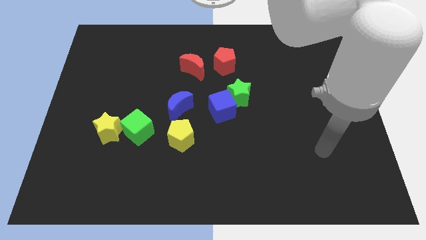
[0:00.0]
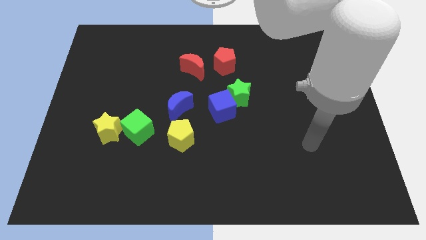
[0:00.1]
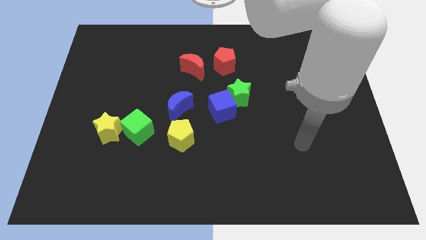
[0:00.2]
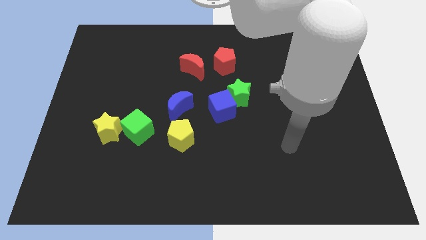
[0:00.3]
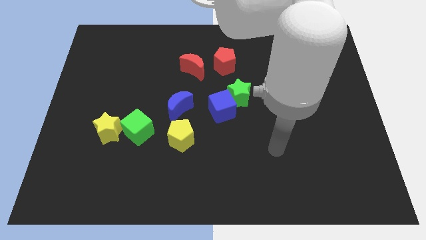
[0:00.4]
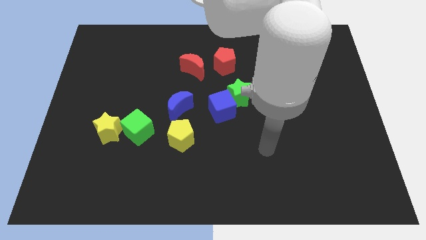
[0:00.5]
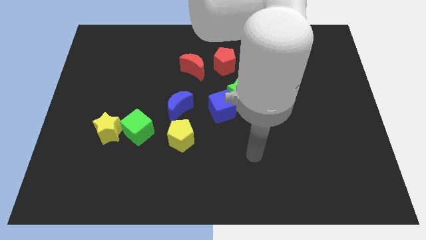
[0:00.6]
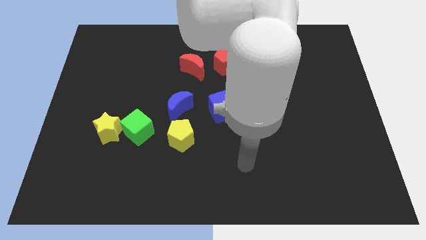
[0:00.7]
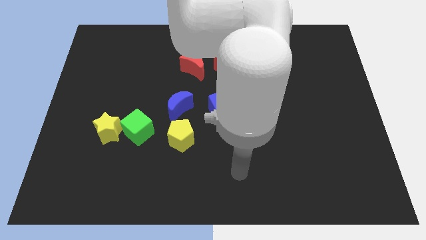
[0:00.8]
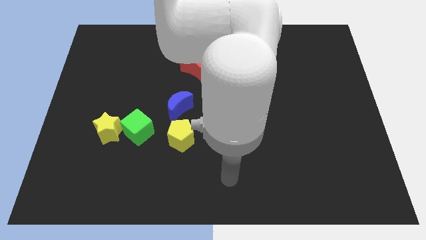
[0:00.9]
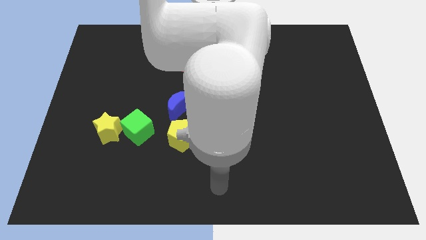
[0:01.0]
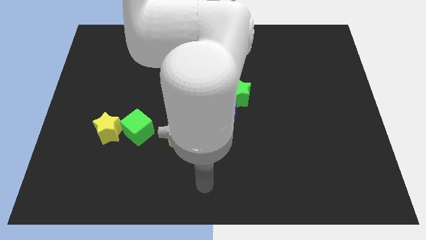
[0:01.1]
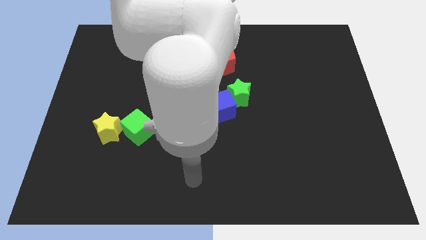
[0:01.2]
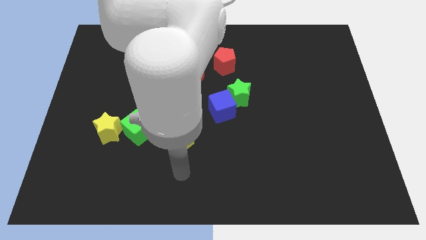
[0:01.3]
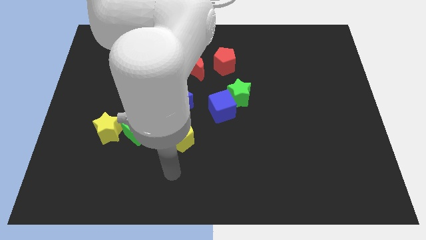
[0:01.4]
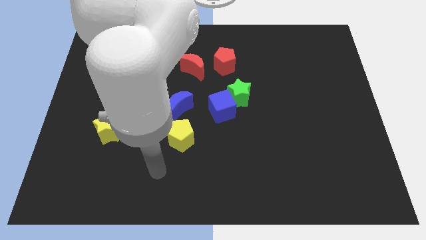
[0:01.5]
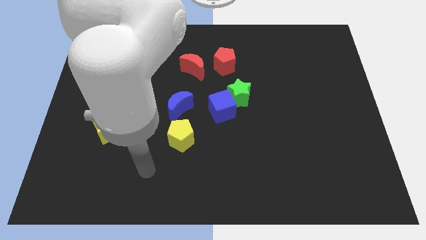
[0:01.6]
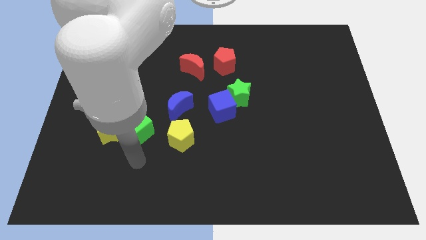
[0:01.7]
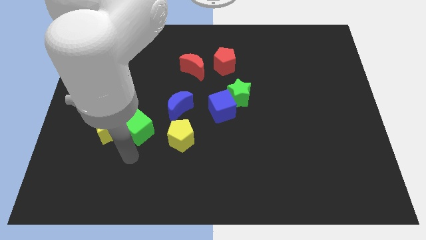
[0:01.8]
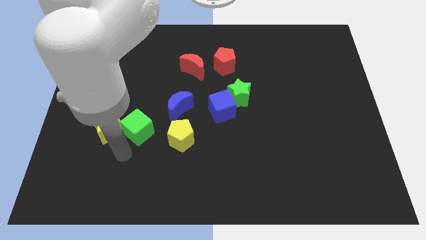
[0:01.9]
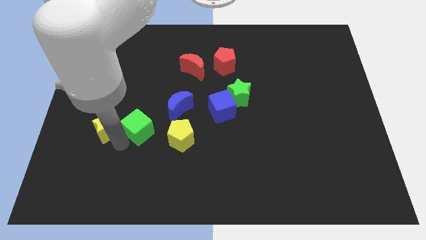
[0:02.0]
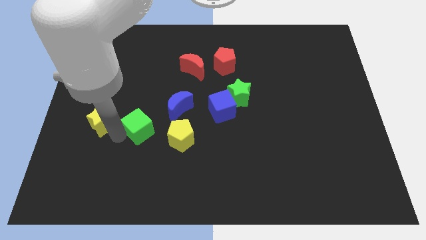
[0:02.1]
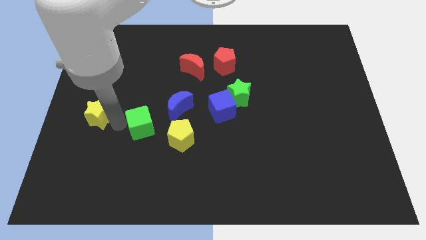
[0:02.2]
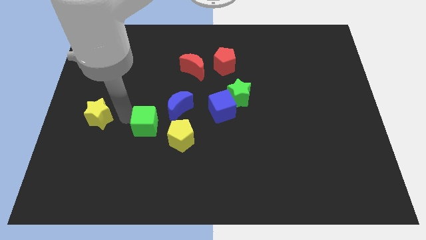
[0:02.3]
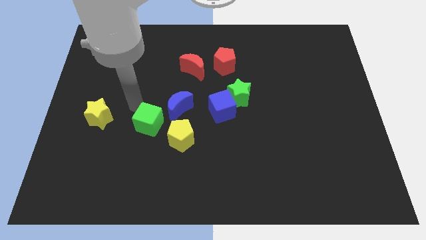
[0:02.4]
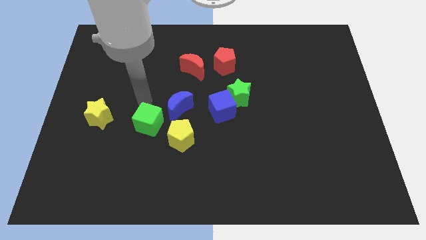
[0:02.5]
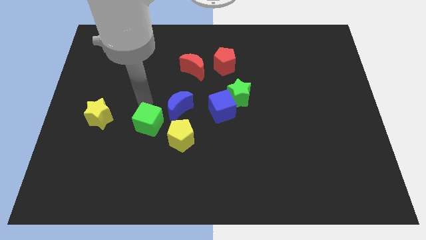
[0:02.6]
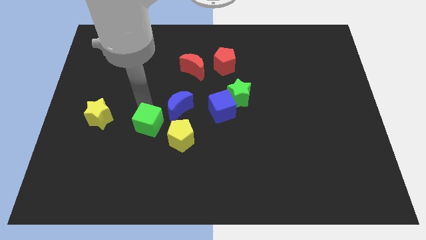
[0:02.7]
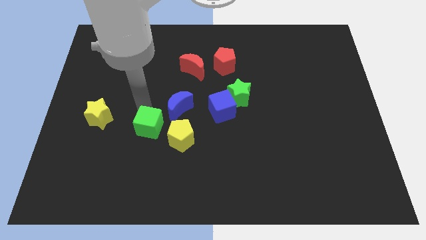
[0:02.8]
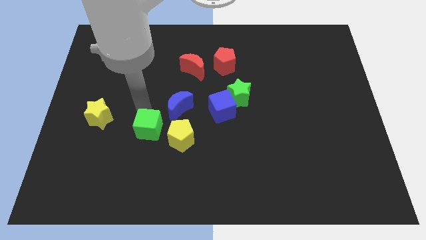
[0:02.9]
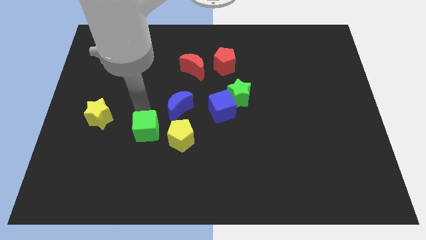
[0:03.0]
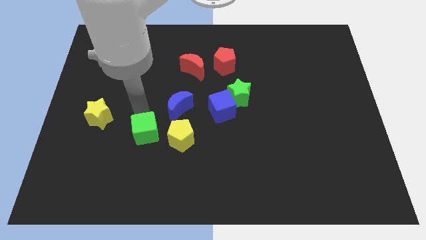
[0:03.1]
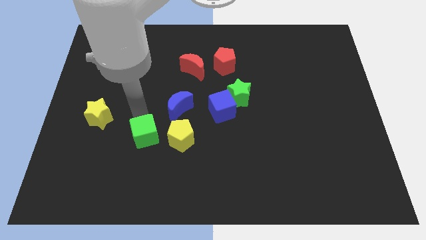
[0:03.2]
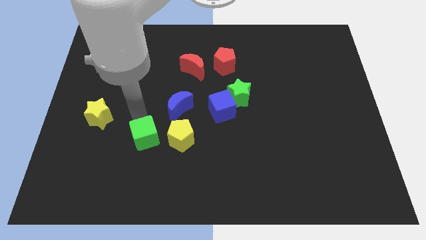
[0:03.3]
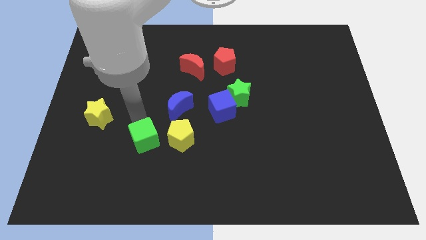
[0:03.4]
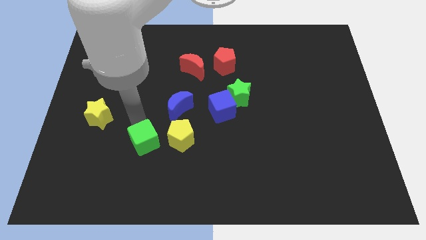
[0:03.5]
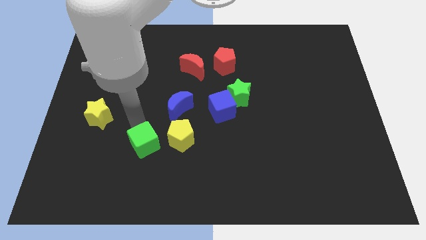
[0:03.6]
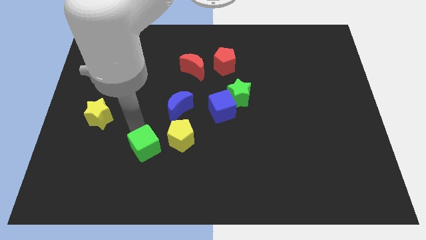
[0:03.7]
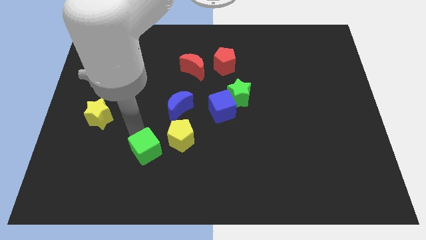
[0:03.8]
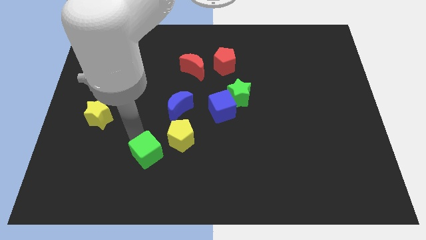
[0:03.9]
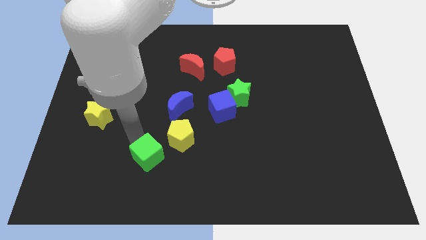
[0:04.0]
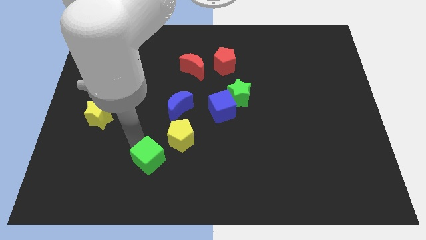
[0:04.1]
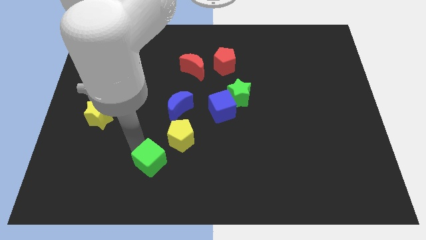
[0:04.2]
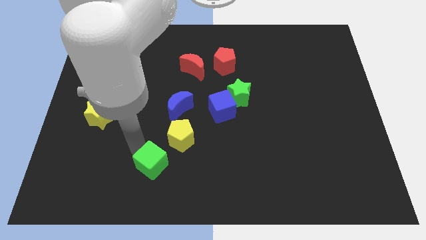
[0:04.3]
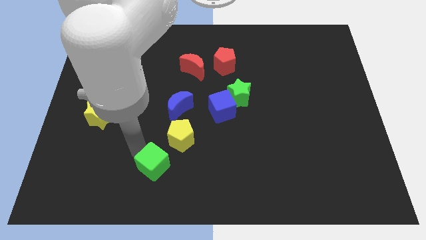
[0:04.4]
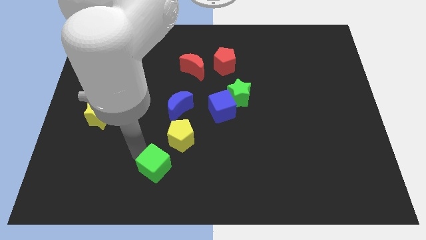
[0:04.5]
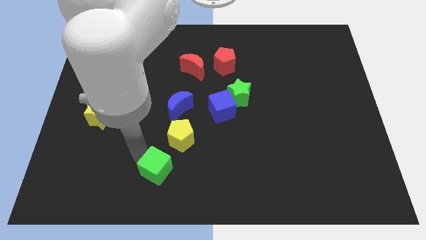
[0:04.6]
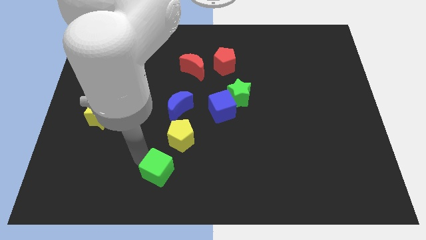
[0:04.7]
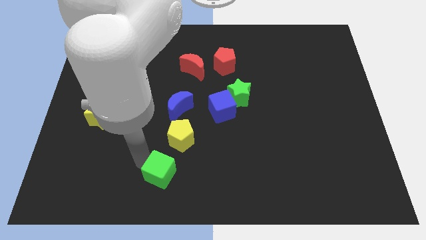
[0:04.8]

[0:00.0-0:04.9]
push the green cube to the bottom

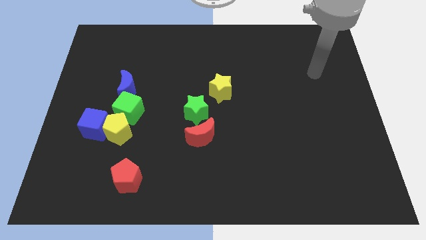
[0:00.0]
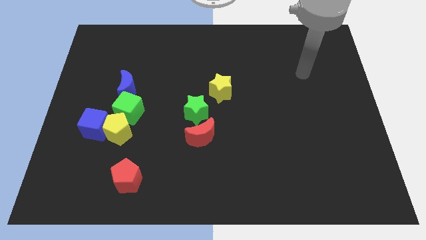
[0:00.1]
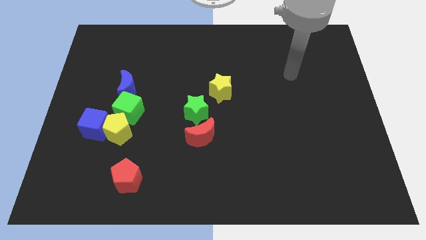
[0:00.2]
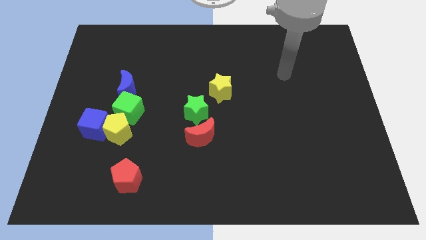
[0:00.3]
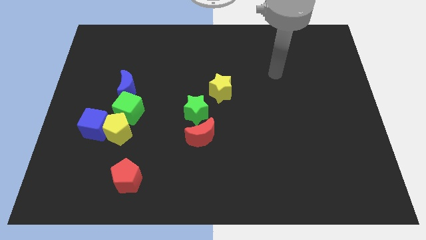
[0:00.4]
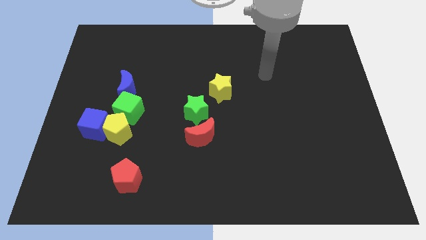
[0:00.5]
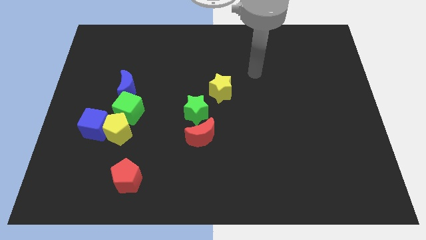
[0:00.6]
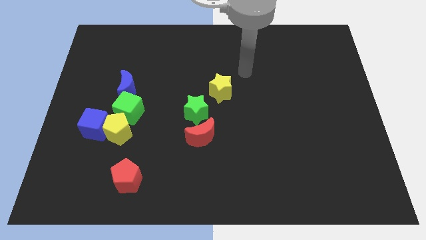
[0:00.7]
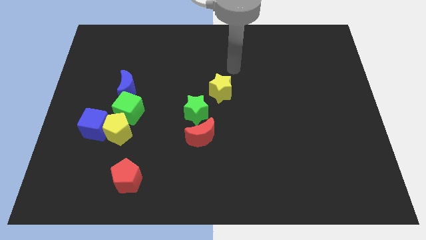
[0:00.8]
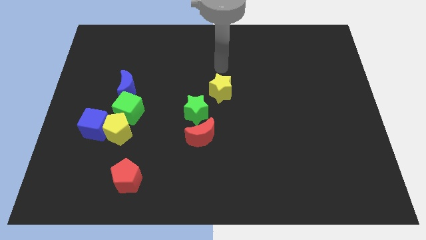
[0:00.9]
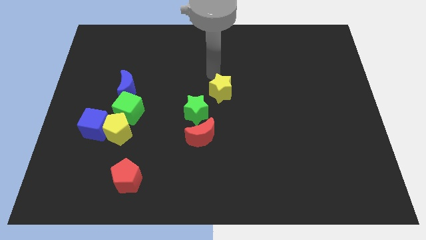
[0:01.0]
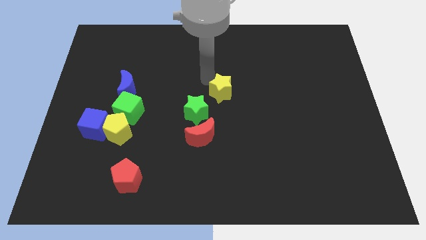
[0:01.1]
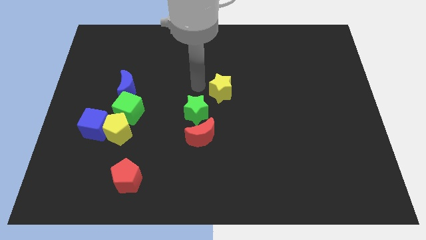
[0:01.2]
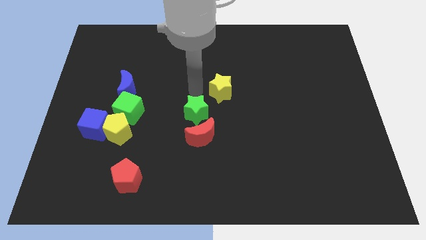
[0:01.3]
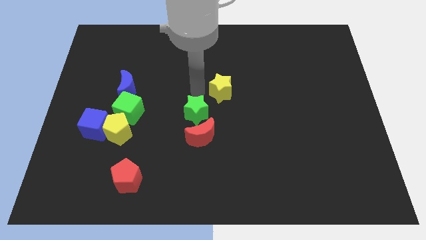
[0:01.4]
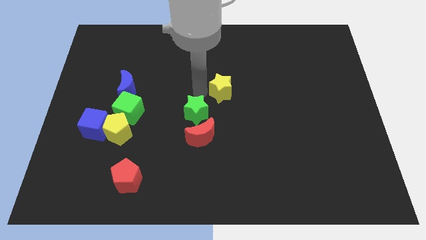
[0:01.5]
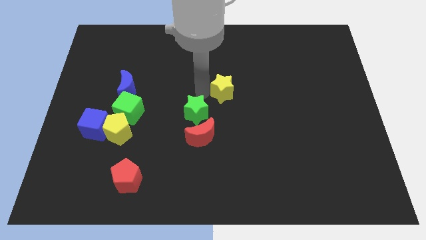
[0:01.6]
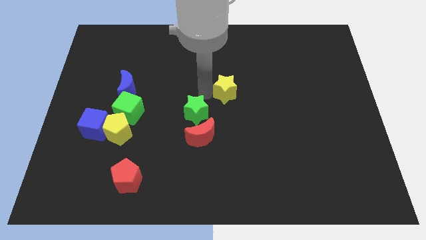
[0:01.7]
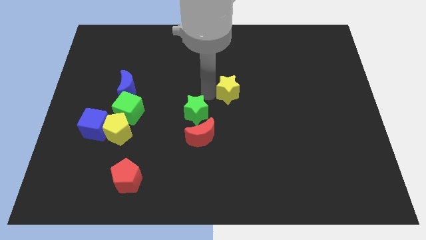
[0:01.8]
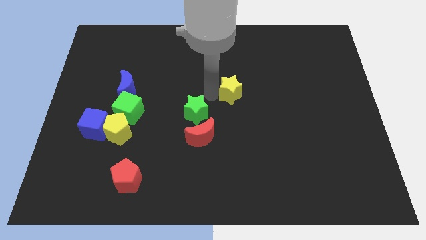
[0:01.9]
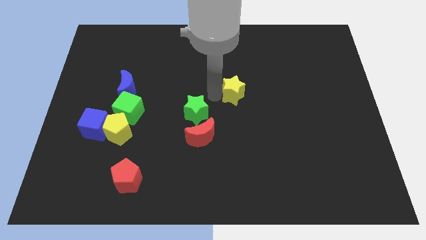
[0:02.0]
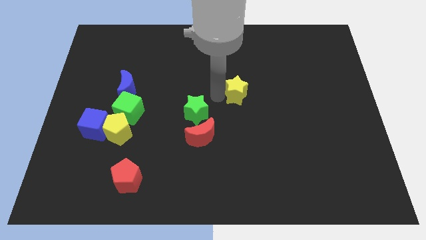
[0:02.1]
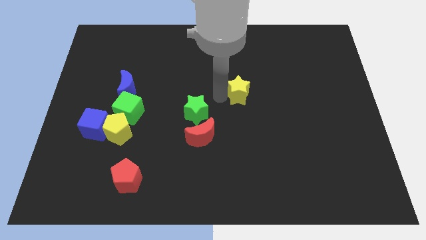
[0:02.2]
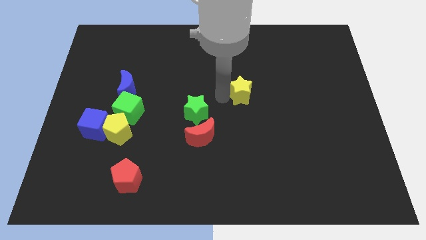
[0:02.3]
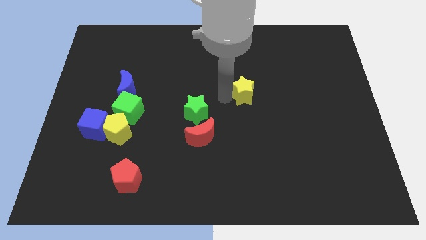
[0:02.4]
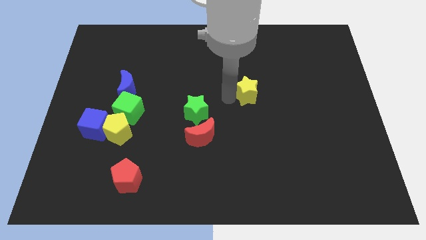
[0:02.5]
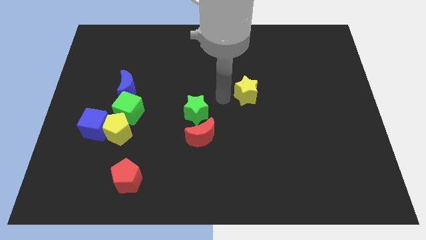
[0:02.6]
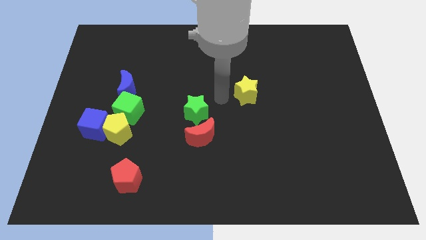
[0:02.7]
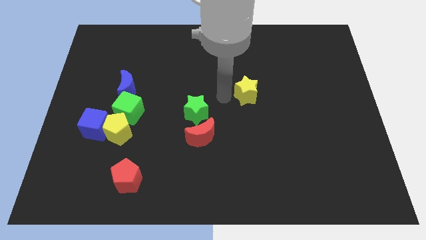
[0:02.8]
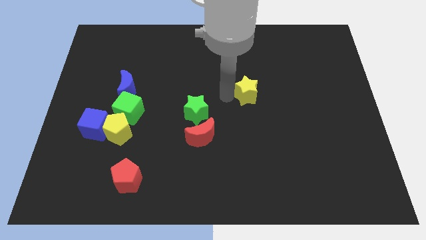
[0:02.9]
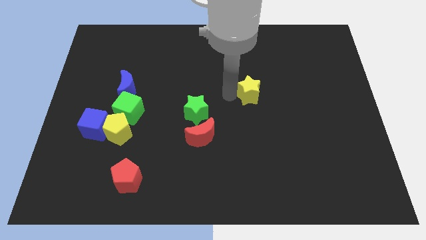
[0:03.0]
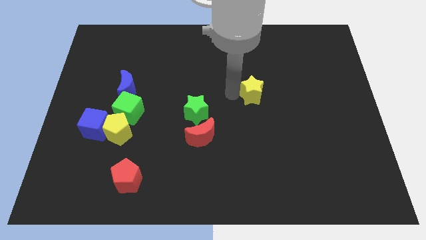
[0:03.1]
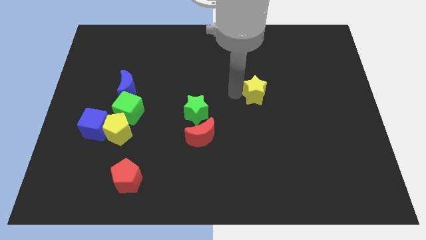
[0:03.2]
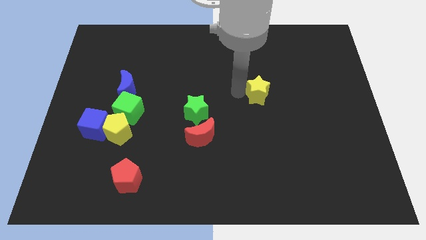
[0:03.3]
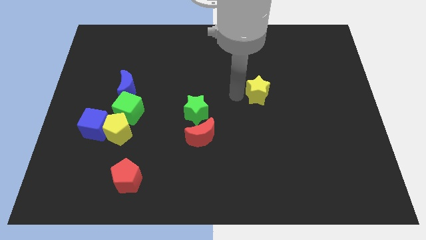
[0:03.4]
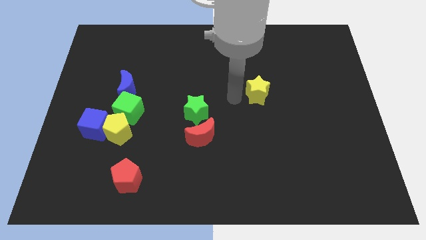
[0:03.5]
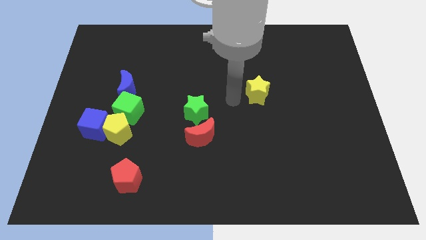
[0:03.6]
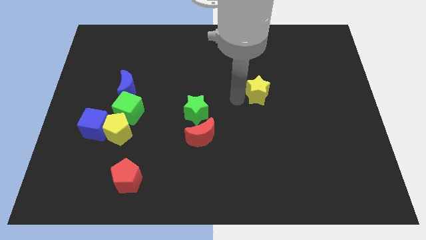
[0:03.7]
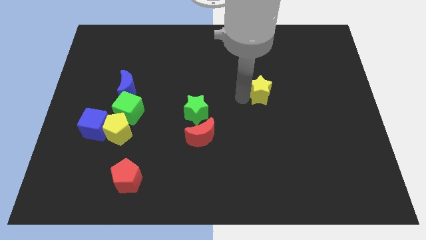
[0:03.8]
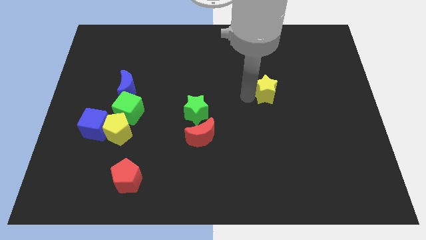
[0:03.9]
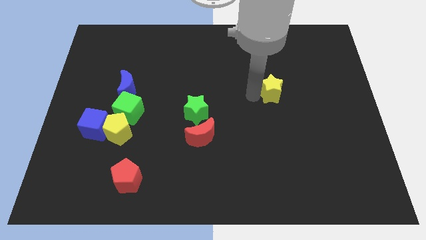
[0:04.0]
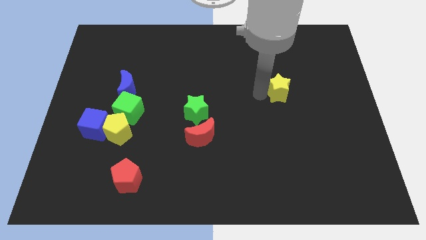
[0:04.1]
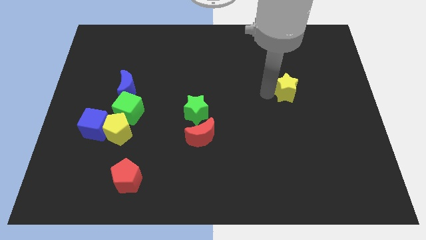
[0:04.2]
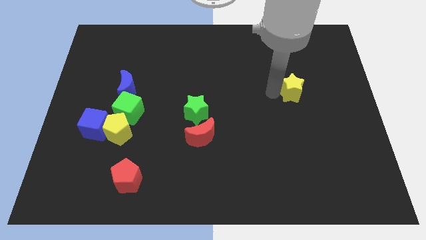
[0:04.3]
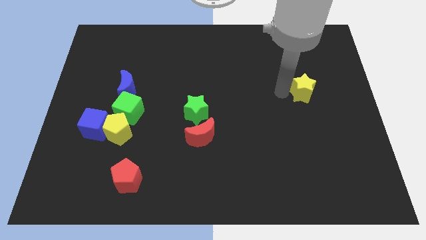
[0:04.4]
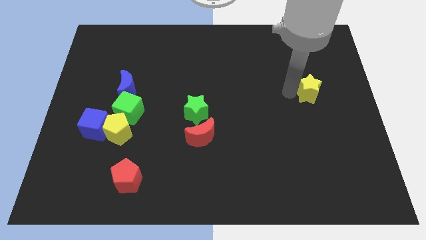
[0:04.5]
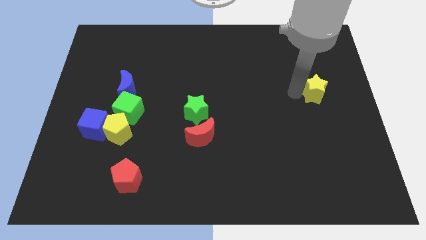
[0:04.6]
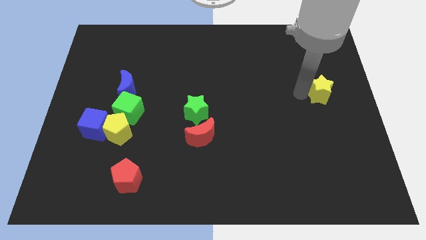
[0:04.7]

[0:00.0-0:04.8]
slide the yellow star to the right side
